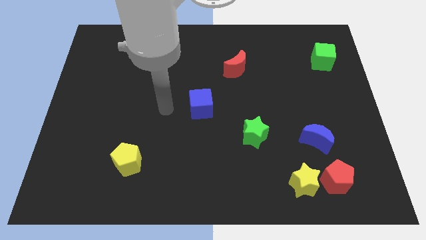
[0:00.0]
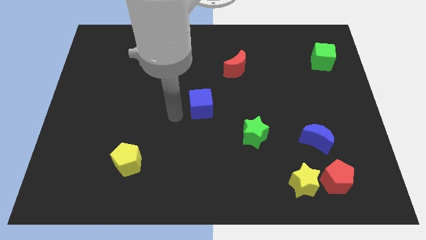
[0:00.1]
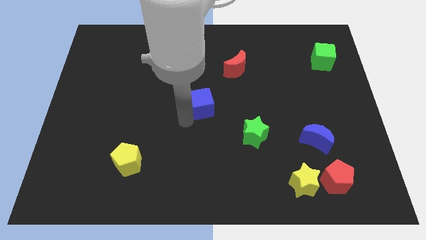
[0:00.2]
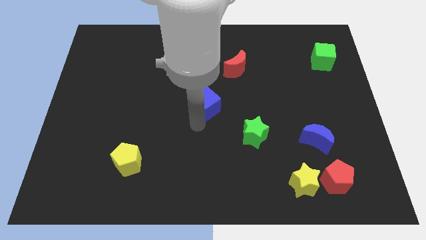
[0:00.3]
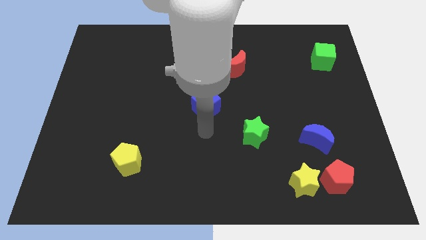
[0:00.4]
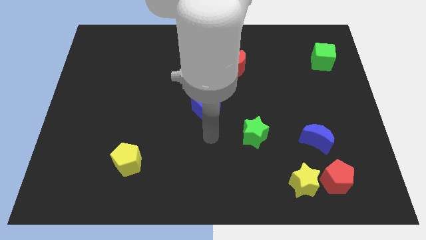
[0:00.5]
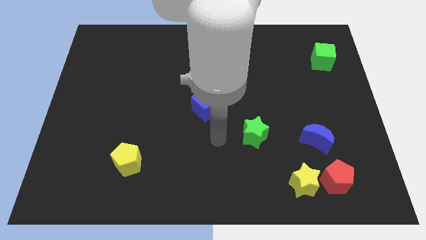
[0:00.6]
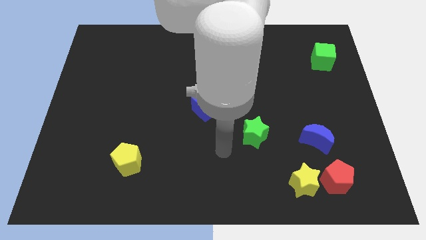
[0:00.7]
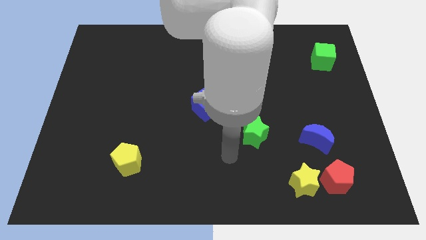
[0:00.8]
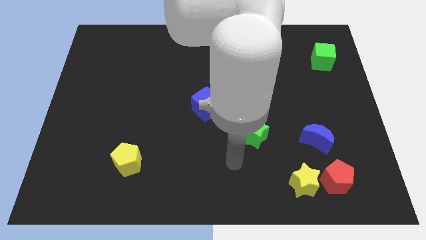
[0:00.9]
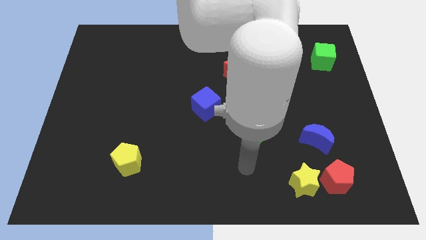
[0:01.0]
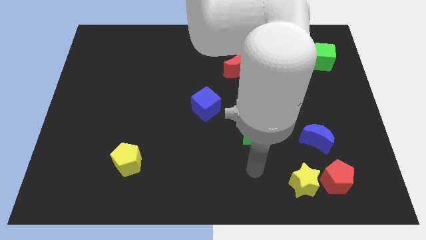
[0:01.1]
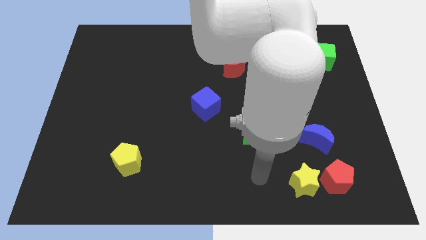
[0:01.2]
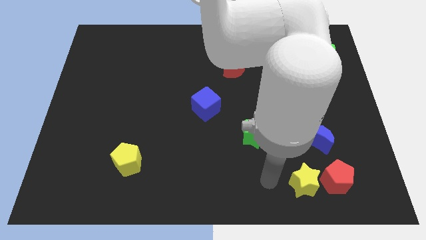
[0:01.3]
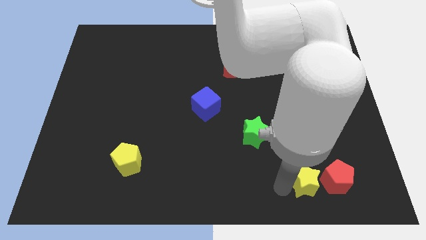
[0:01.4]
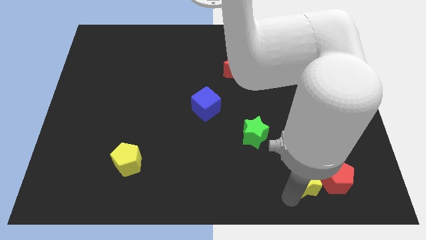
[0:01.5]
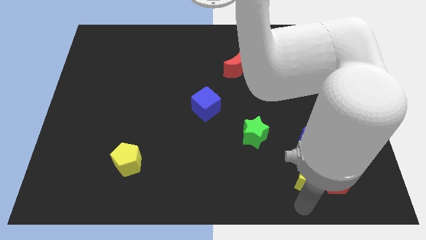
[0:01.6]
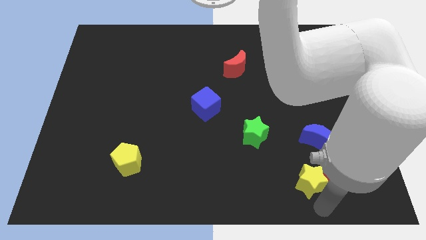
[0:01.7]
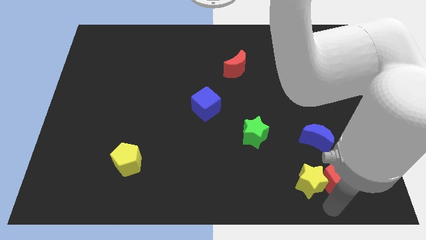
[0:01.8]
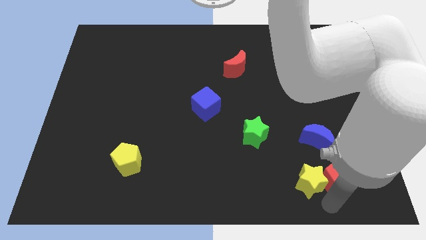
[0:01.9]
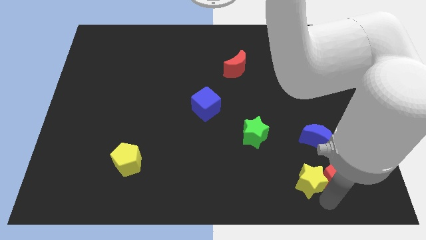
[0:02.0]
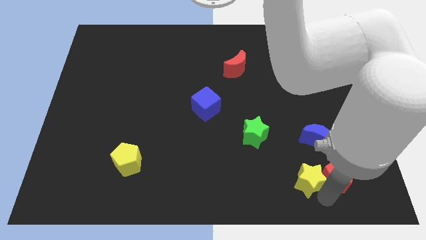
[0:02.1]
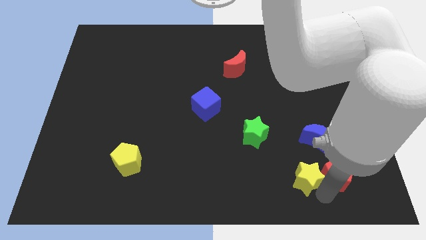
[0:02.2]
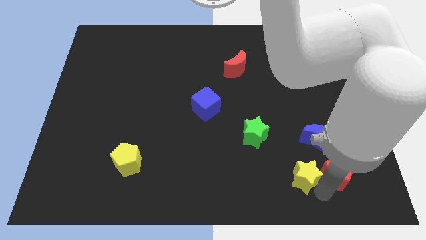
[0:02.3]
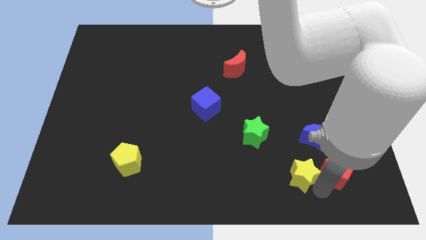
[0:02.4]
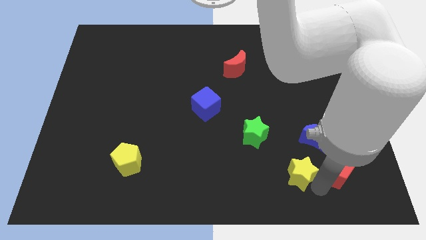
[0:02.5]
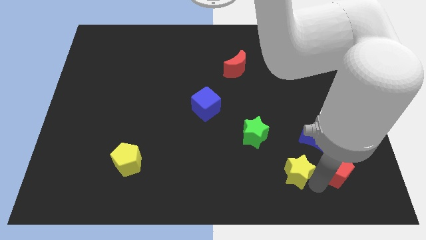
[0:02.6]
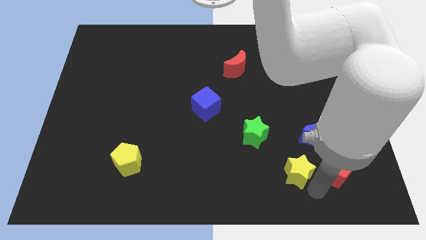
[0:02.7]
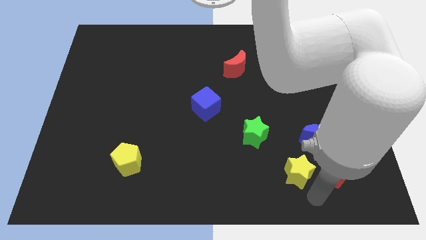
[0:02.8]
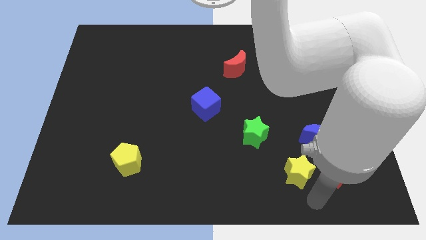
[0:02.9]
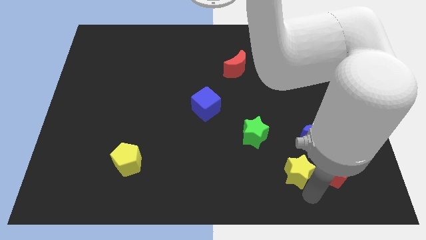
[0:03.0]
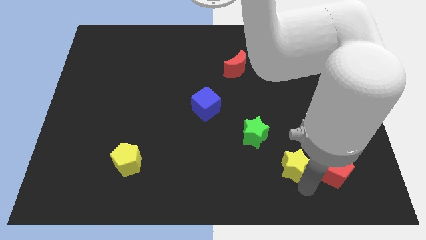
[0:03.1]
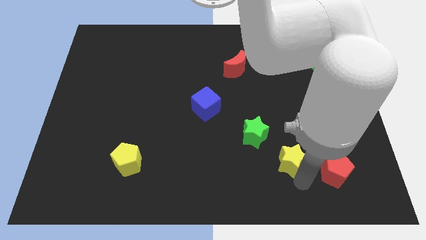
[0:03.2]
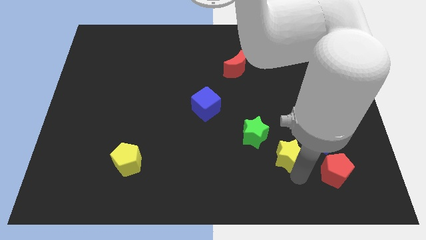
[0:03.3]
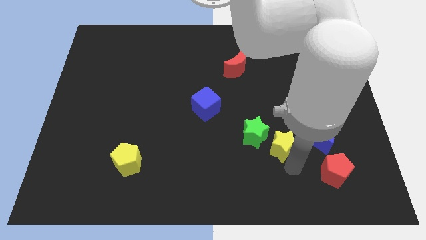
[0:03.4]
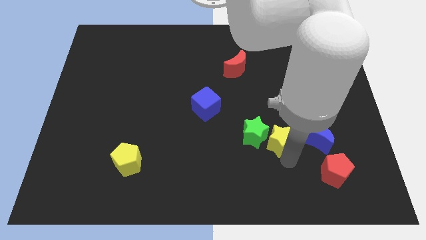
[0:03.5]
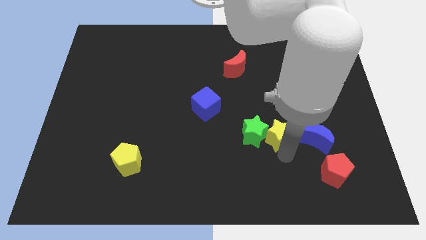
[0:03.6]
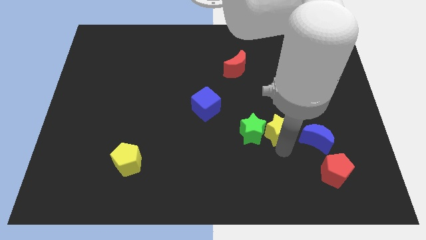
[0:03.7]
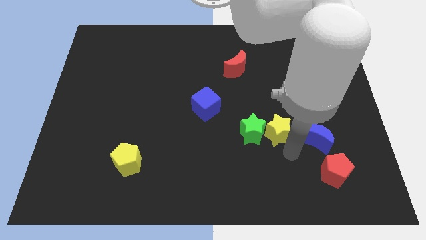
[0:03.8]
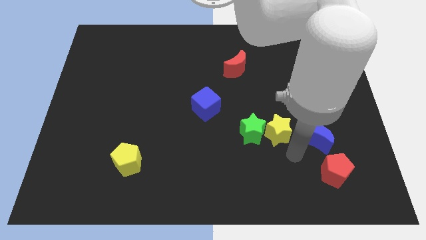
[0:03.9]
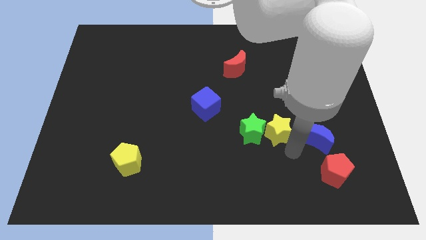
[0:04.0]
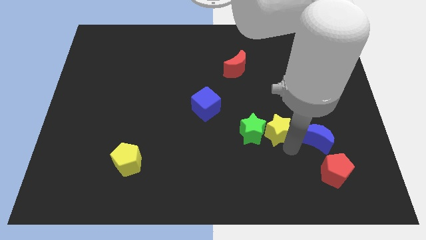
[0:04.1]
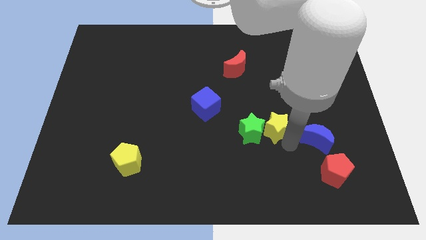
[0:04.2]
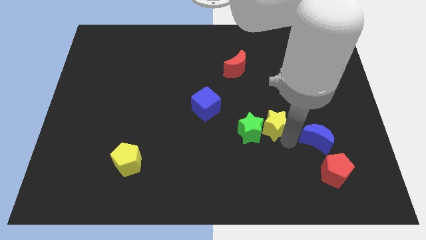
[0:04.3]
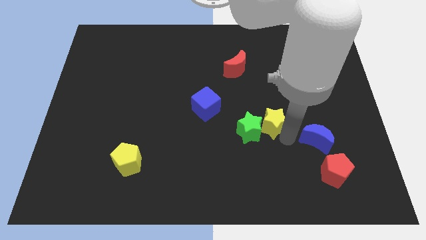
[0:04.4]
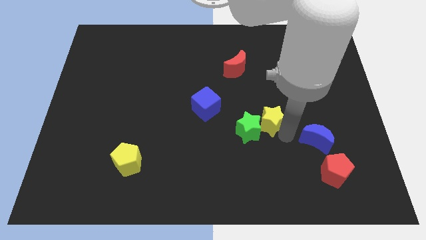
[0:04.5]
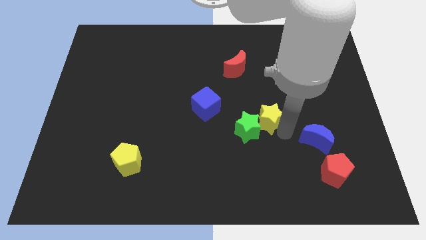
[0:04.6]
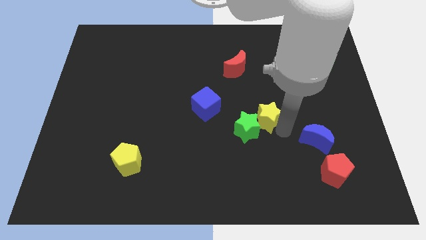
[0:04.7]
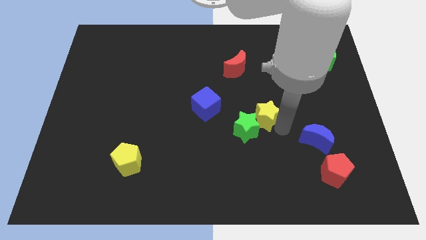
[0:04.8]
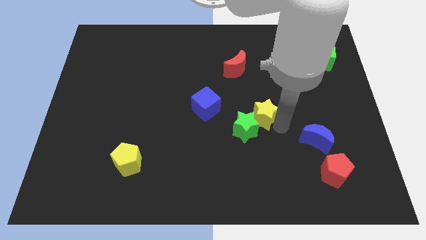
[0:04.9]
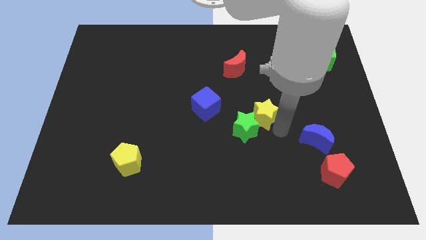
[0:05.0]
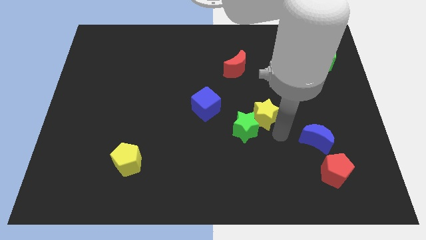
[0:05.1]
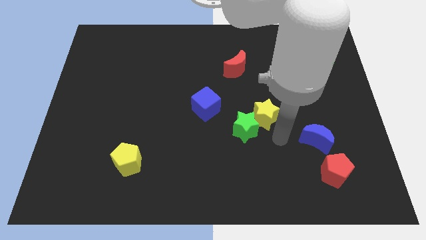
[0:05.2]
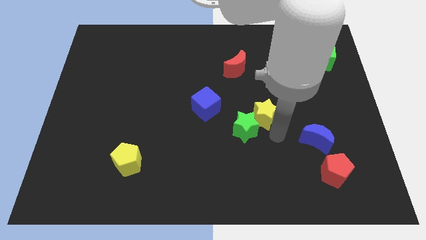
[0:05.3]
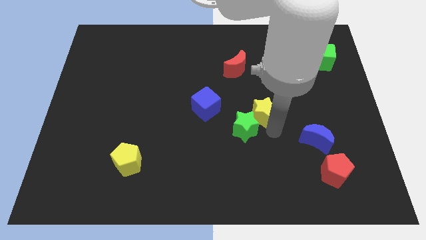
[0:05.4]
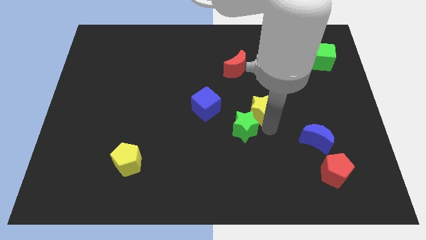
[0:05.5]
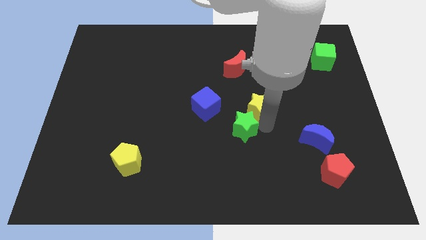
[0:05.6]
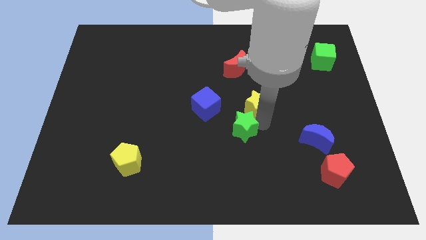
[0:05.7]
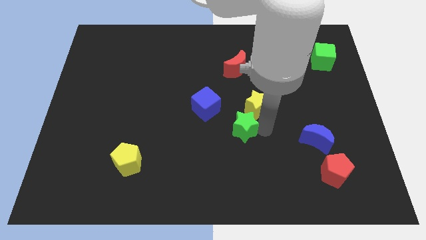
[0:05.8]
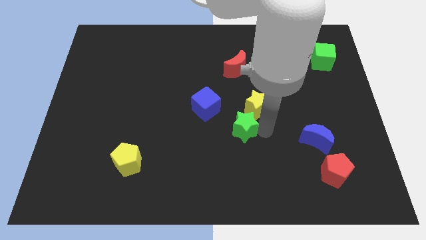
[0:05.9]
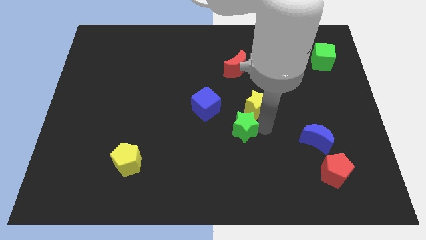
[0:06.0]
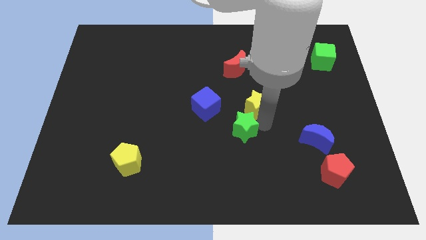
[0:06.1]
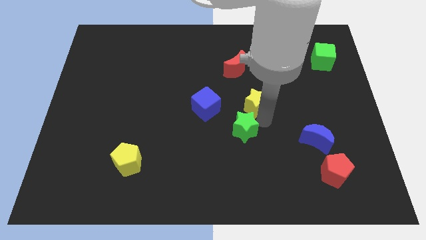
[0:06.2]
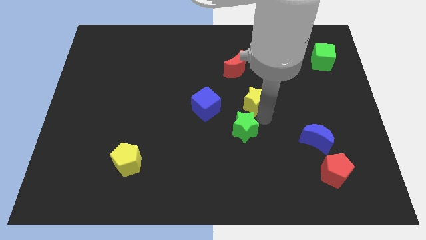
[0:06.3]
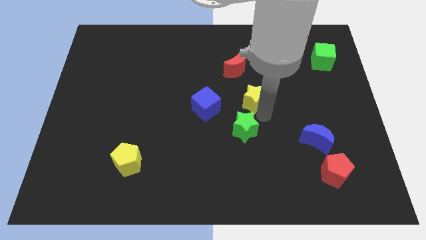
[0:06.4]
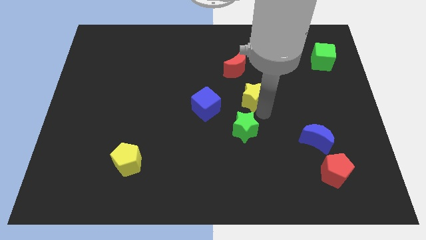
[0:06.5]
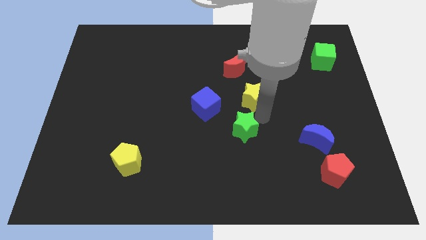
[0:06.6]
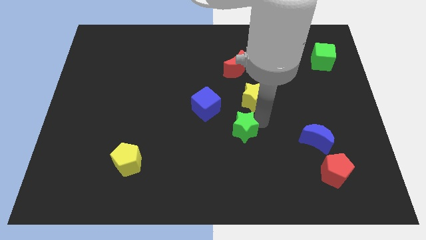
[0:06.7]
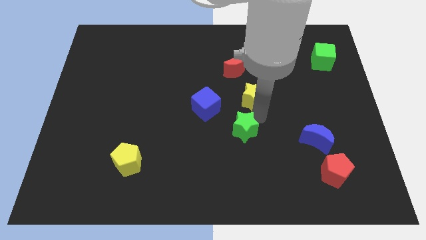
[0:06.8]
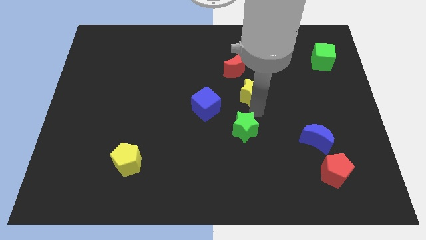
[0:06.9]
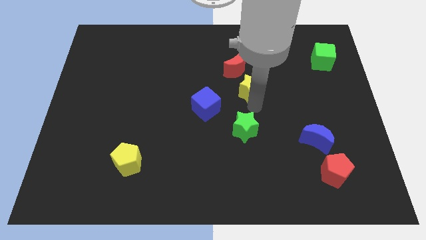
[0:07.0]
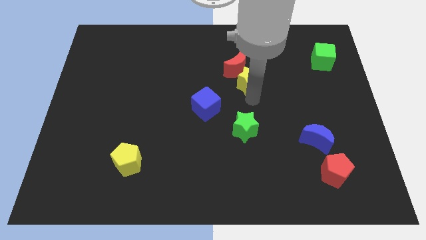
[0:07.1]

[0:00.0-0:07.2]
put the yellow star towards the red moon

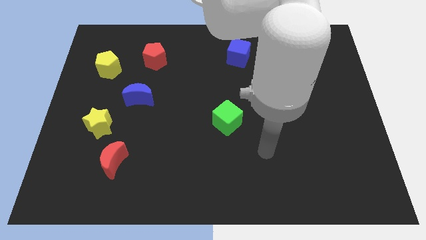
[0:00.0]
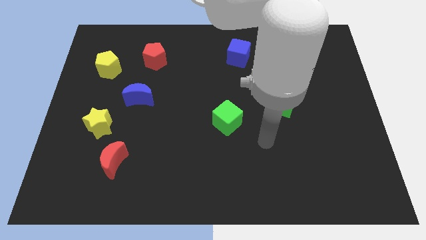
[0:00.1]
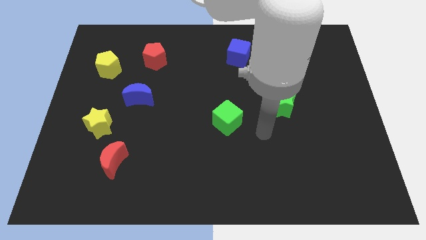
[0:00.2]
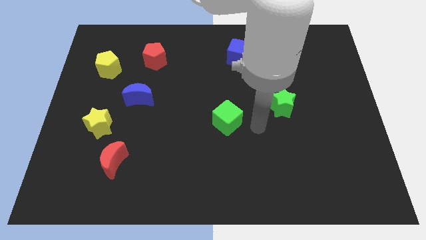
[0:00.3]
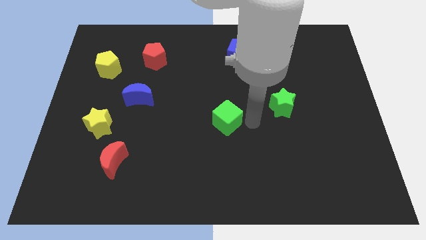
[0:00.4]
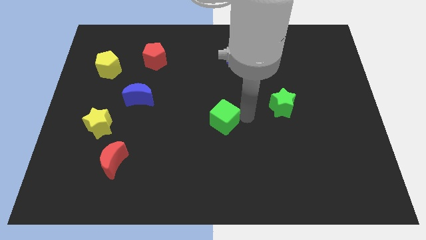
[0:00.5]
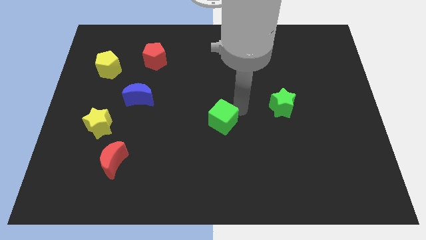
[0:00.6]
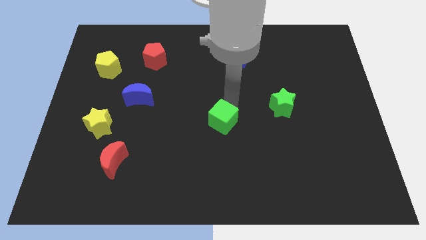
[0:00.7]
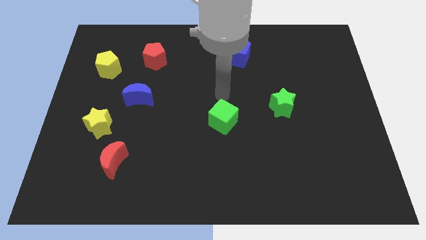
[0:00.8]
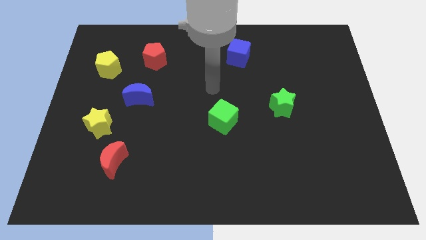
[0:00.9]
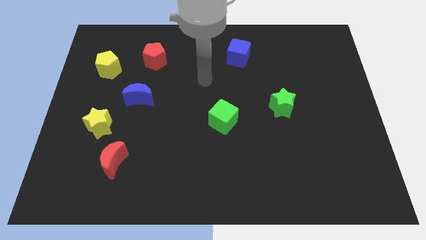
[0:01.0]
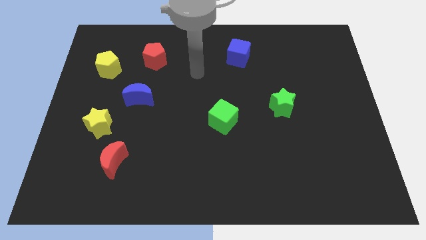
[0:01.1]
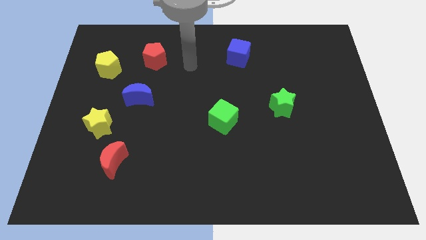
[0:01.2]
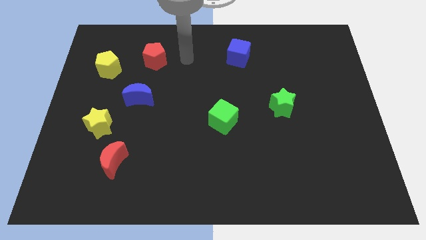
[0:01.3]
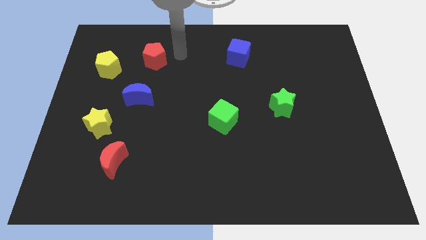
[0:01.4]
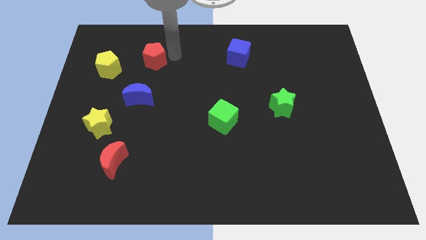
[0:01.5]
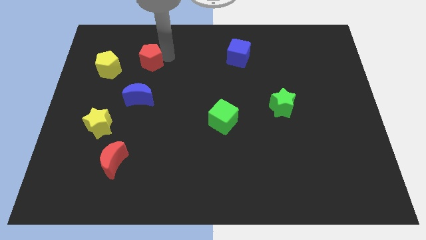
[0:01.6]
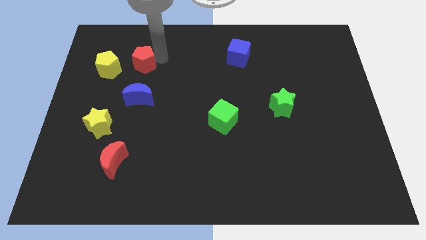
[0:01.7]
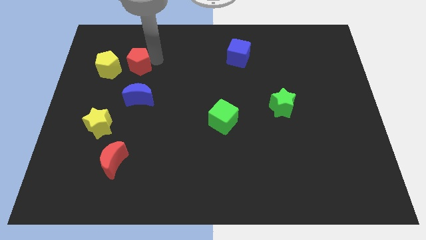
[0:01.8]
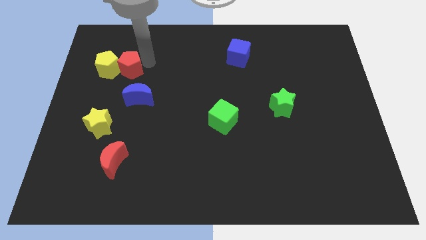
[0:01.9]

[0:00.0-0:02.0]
push the red pentagon close to the yellow pentagon
